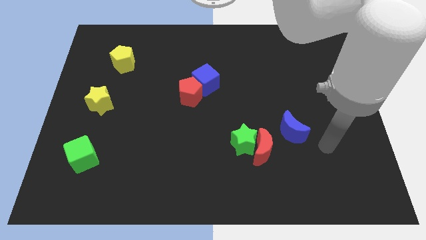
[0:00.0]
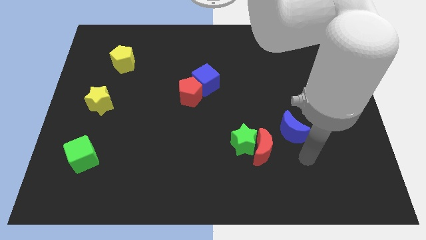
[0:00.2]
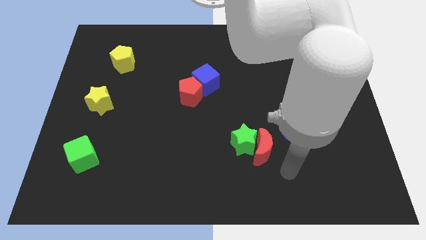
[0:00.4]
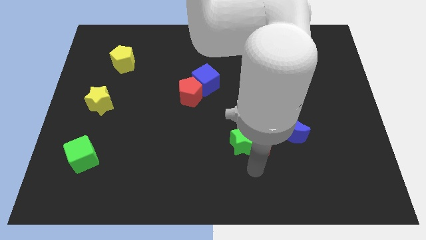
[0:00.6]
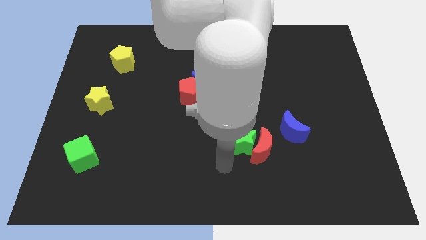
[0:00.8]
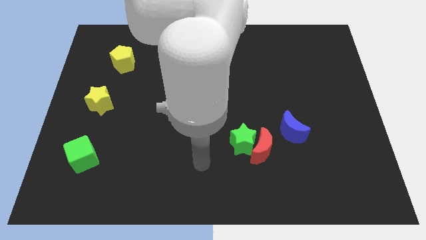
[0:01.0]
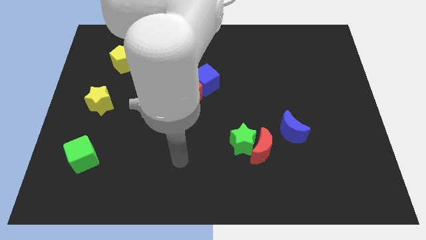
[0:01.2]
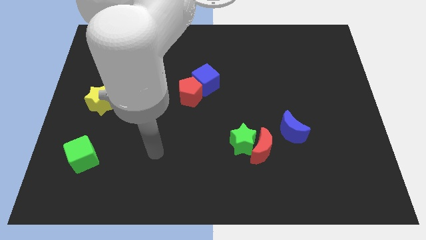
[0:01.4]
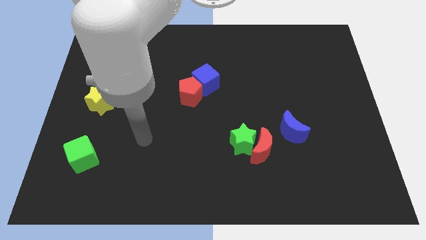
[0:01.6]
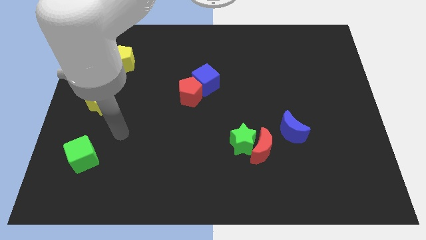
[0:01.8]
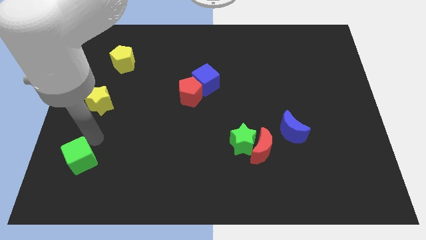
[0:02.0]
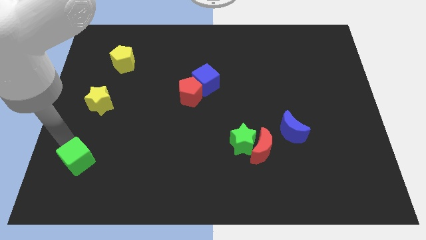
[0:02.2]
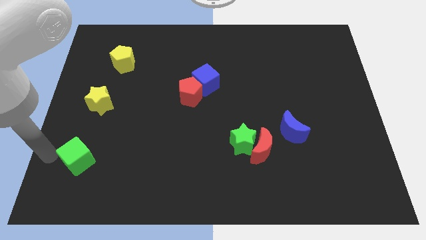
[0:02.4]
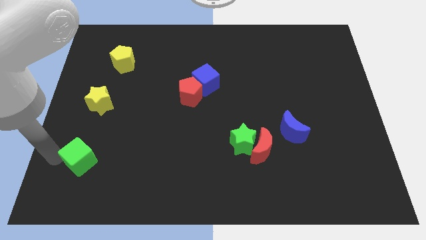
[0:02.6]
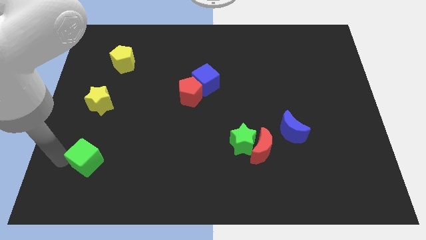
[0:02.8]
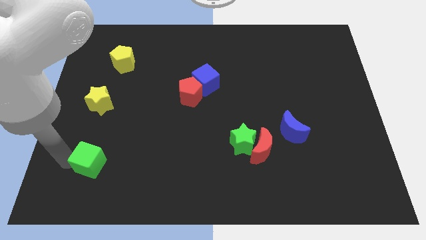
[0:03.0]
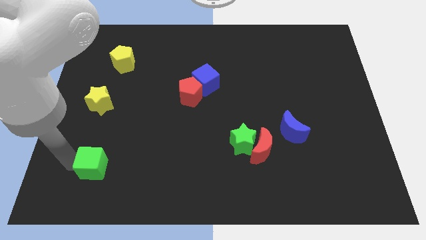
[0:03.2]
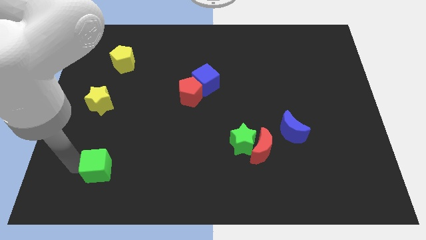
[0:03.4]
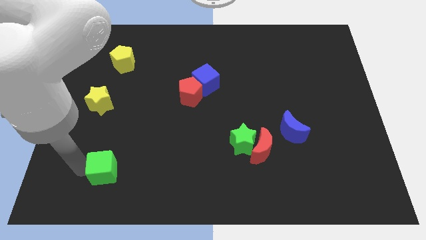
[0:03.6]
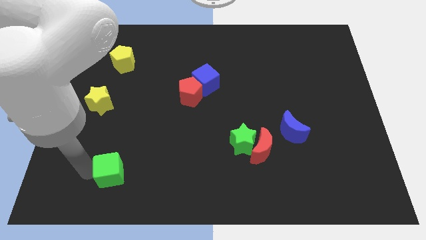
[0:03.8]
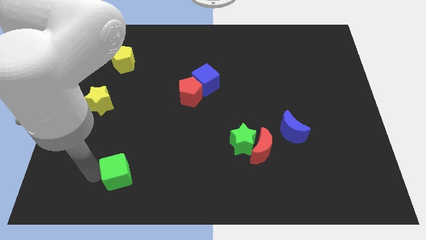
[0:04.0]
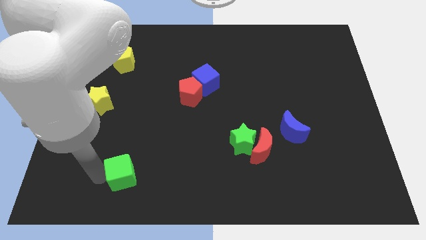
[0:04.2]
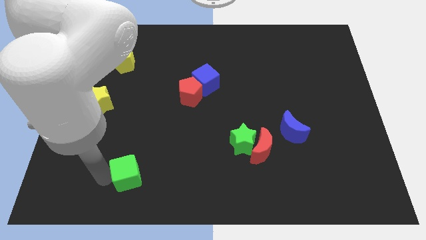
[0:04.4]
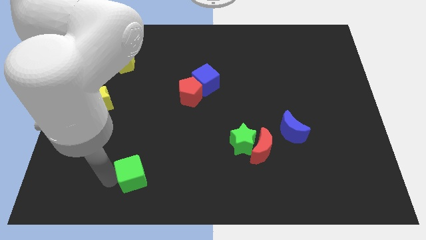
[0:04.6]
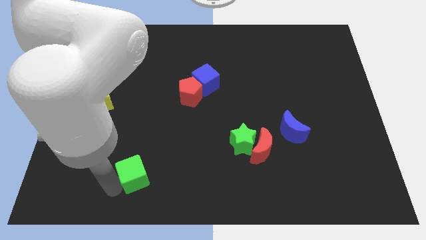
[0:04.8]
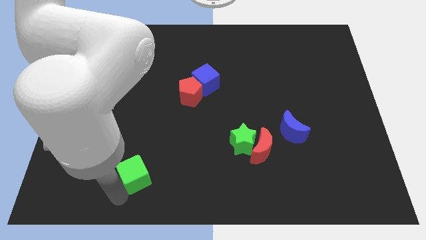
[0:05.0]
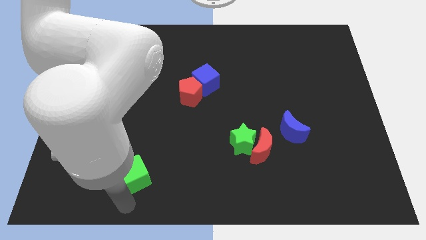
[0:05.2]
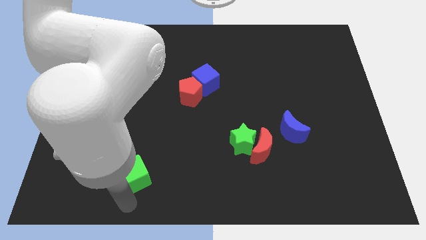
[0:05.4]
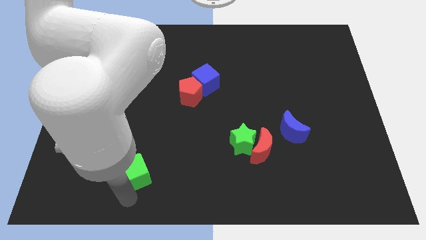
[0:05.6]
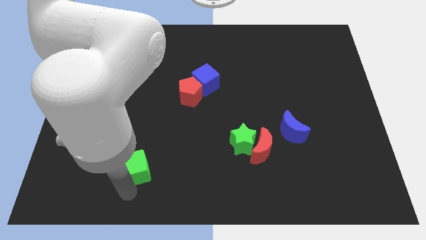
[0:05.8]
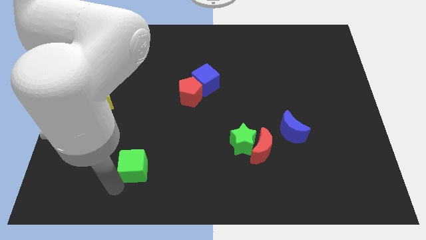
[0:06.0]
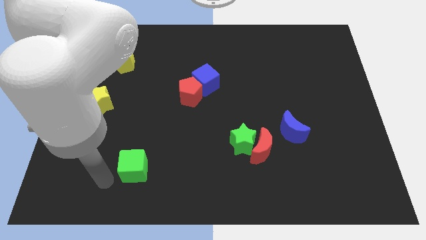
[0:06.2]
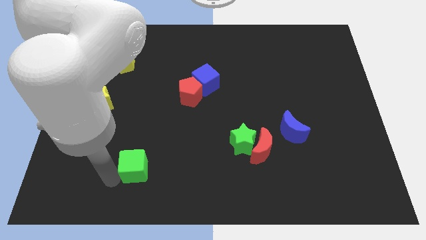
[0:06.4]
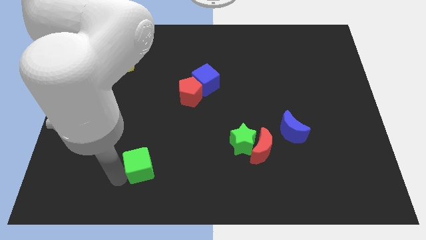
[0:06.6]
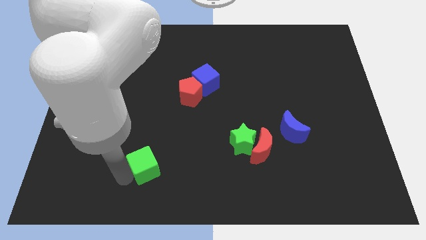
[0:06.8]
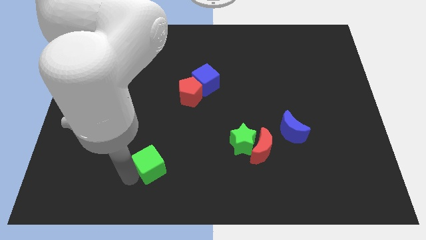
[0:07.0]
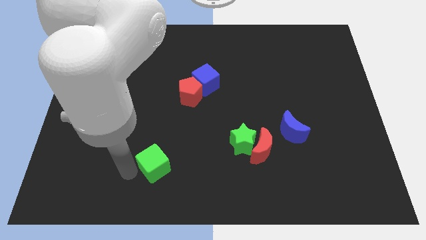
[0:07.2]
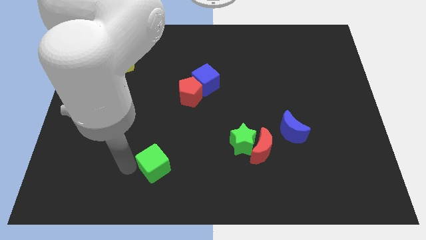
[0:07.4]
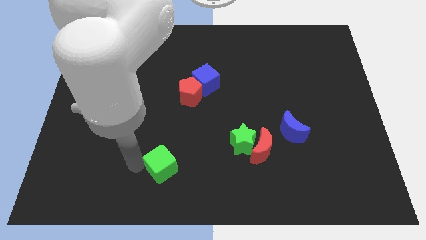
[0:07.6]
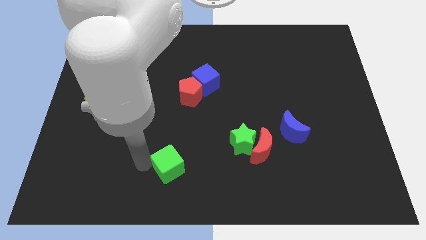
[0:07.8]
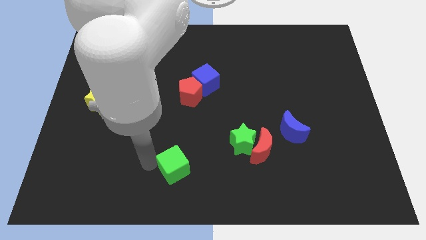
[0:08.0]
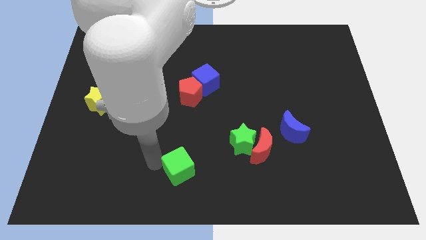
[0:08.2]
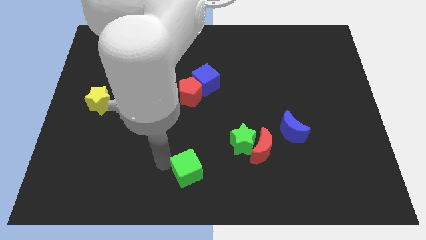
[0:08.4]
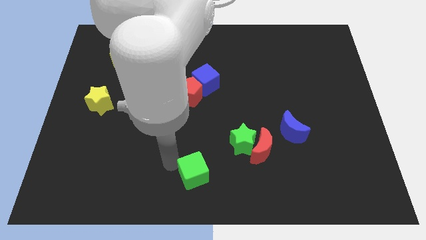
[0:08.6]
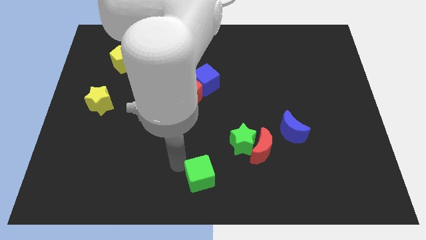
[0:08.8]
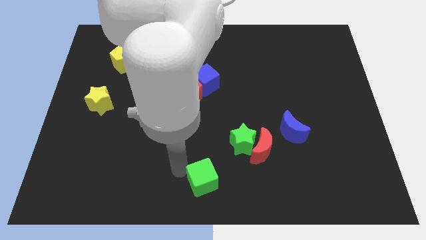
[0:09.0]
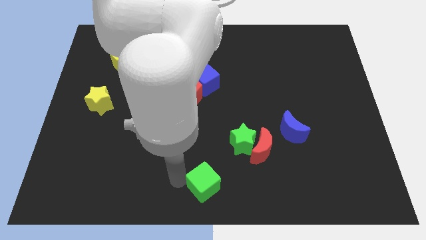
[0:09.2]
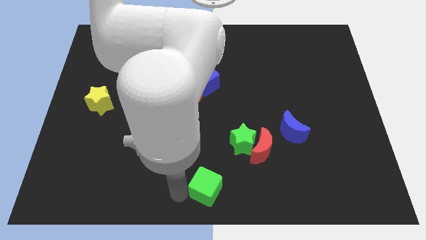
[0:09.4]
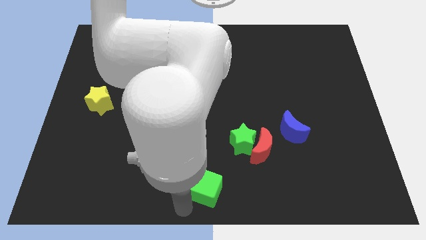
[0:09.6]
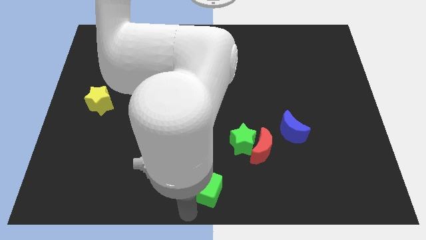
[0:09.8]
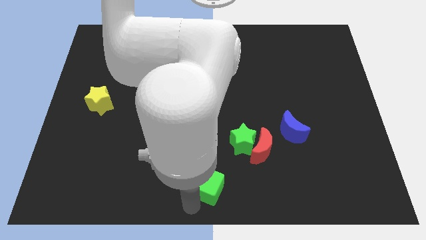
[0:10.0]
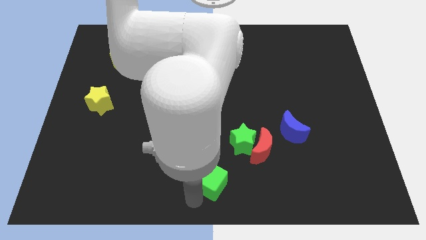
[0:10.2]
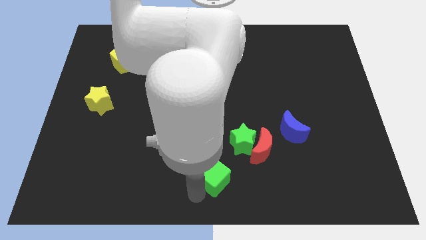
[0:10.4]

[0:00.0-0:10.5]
slide the green cube to the bottom left side of the red moon

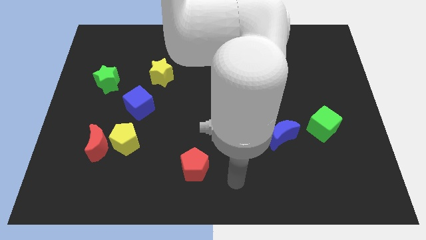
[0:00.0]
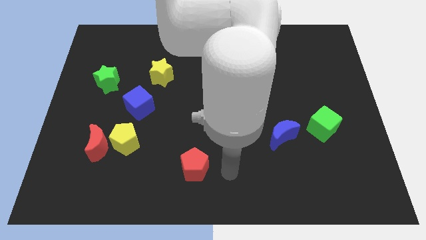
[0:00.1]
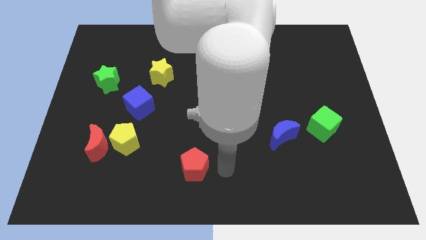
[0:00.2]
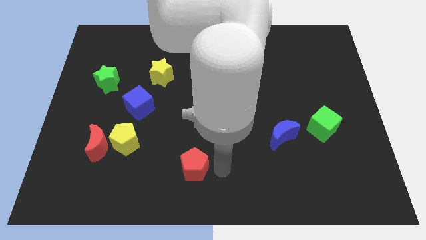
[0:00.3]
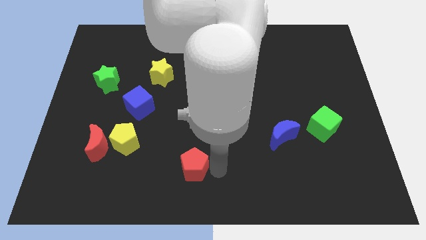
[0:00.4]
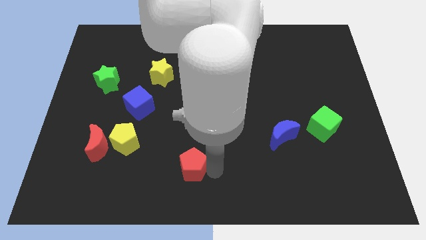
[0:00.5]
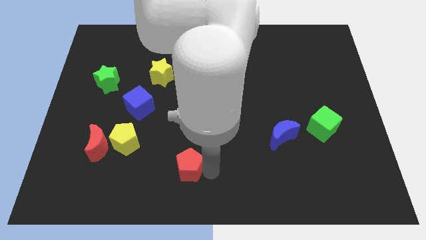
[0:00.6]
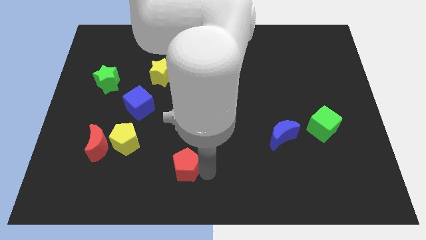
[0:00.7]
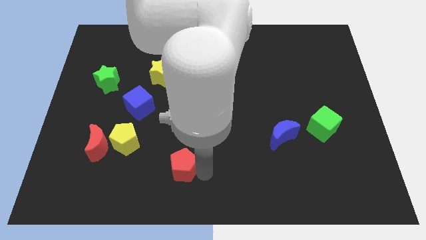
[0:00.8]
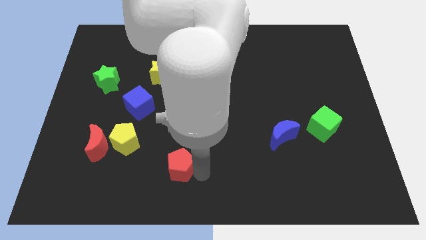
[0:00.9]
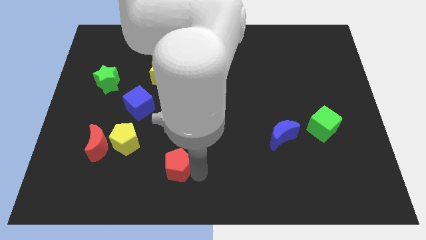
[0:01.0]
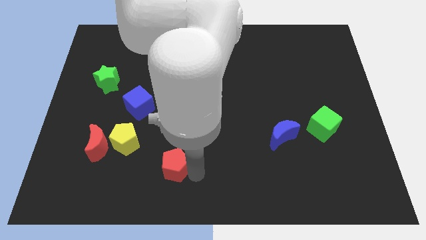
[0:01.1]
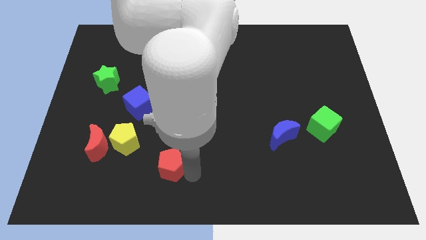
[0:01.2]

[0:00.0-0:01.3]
push the red pentagon to the bottom right side of the yellow pentagon
